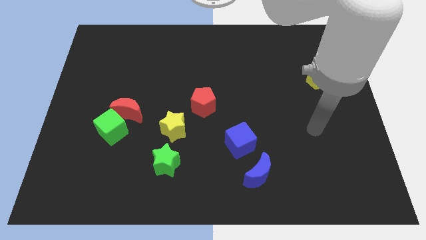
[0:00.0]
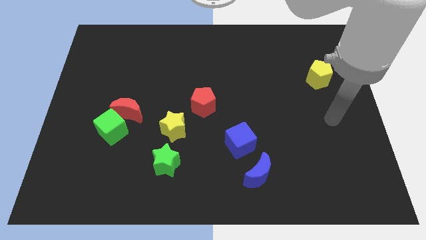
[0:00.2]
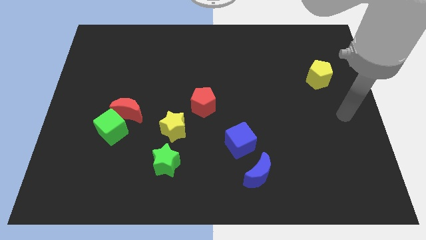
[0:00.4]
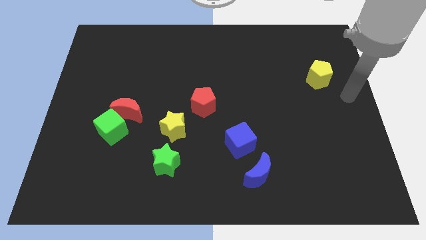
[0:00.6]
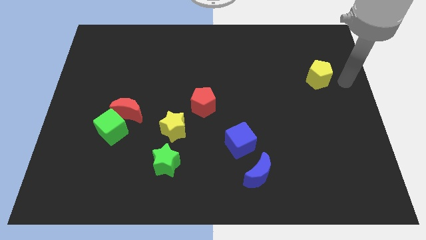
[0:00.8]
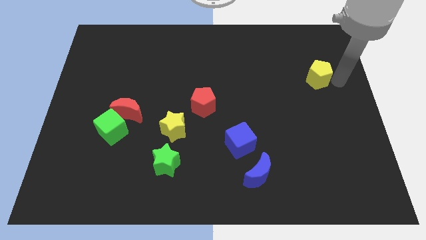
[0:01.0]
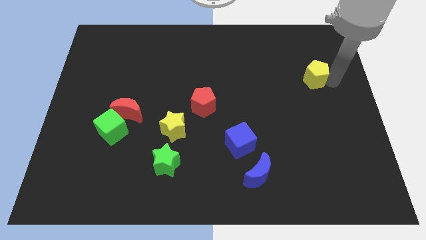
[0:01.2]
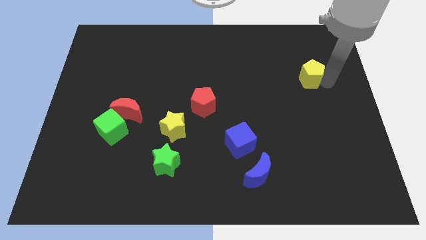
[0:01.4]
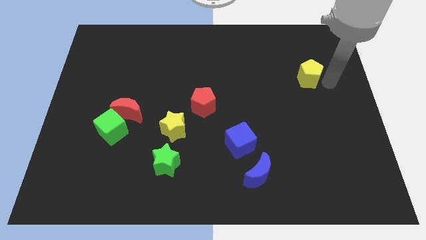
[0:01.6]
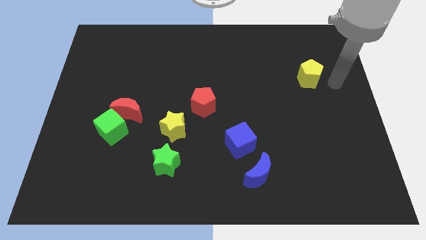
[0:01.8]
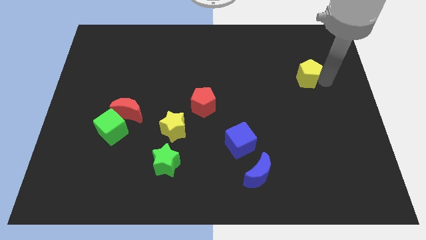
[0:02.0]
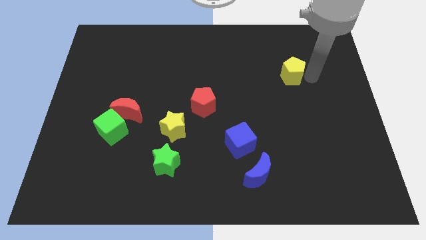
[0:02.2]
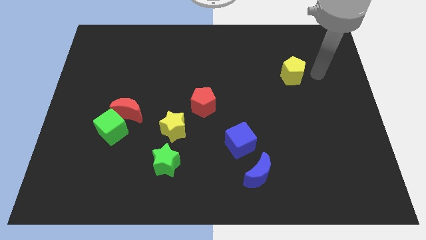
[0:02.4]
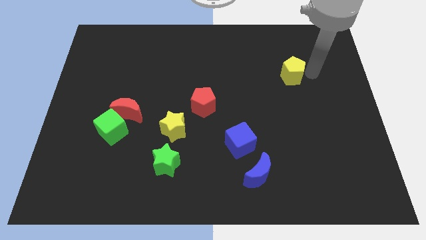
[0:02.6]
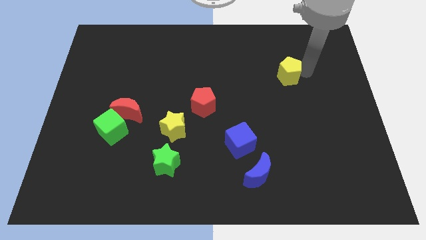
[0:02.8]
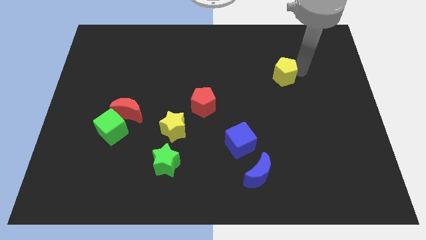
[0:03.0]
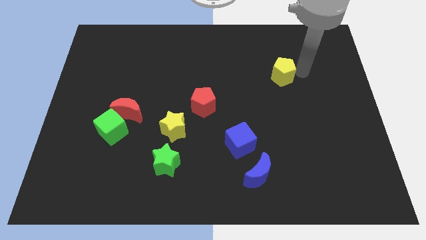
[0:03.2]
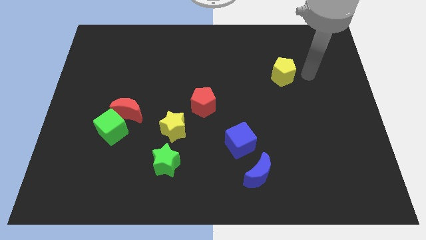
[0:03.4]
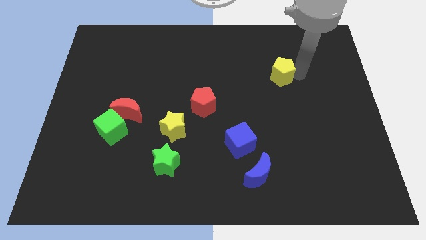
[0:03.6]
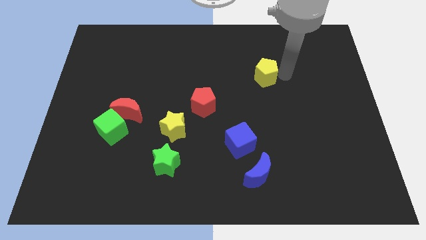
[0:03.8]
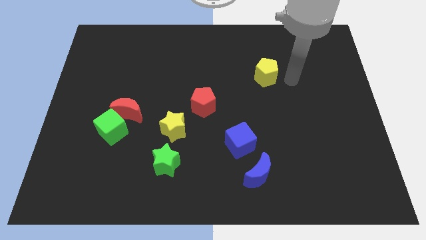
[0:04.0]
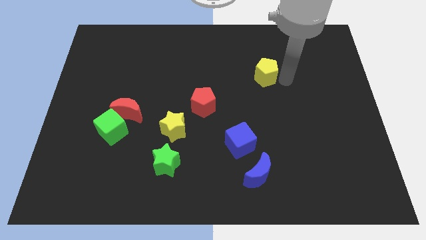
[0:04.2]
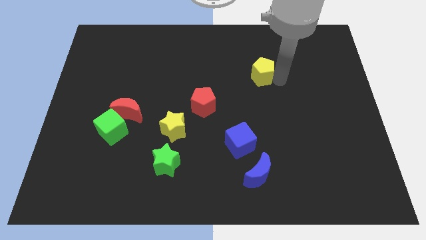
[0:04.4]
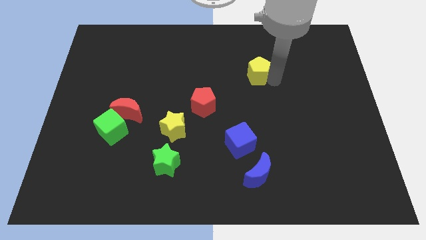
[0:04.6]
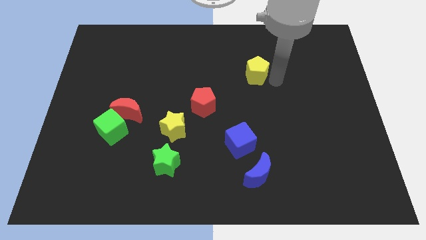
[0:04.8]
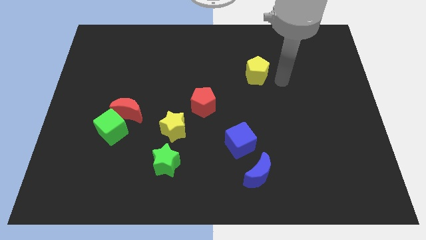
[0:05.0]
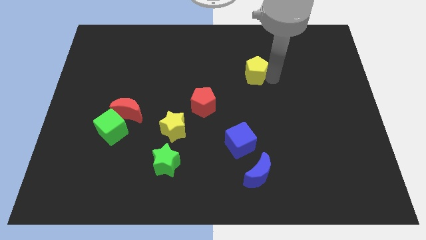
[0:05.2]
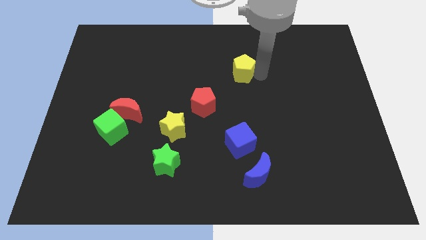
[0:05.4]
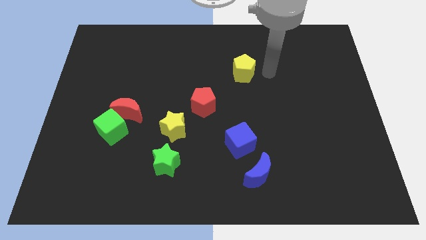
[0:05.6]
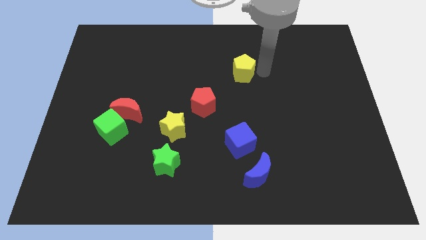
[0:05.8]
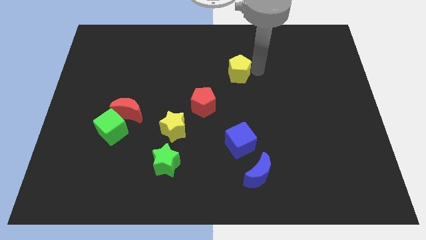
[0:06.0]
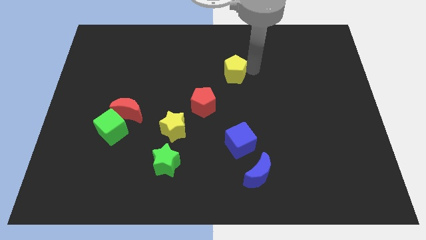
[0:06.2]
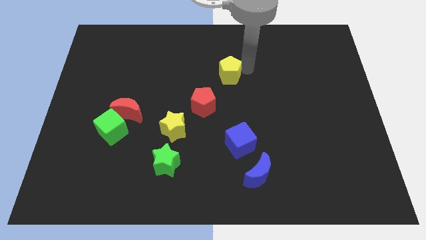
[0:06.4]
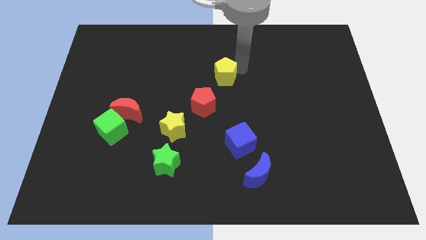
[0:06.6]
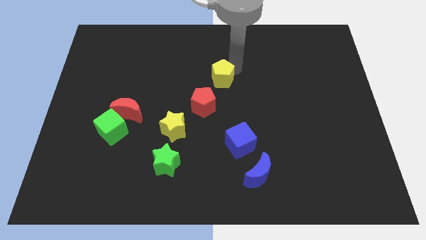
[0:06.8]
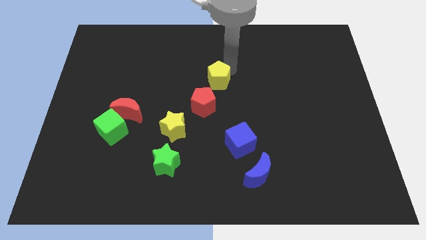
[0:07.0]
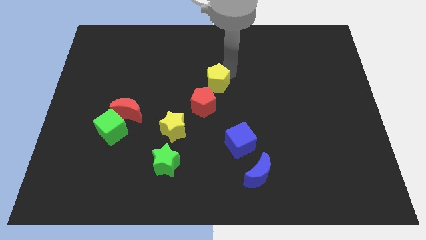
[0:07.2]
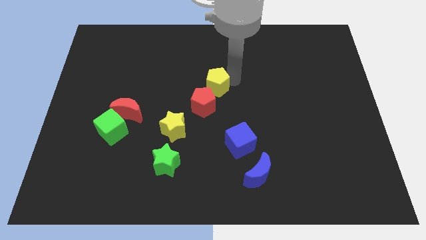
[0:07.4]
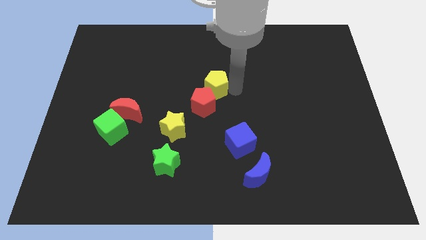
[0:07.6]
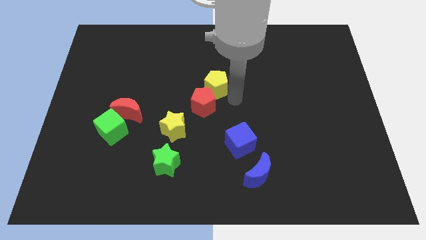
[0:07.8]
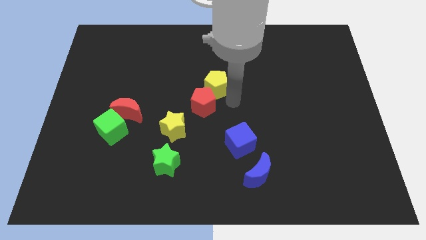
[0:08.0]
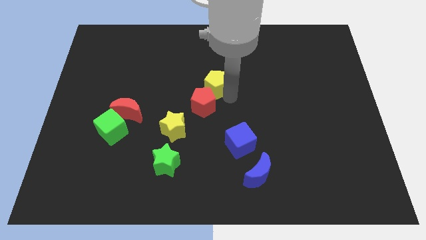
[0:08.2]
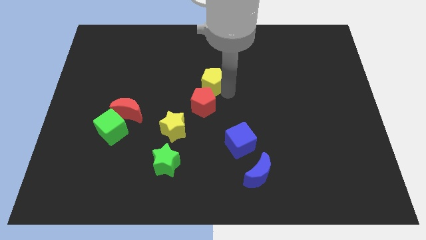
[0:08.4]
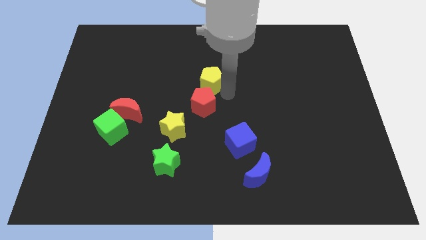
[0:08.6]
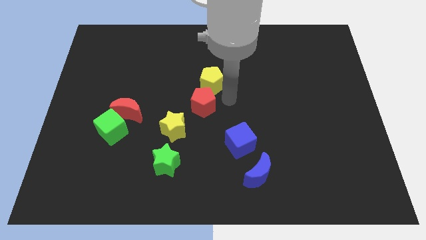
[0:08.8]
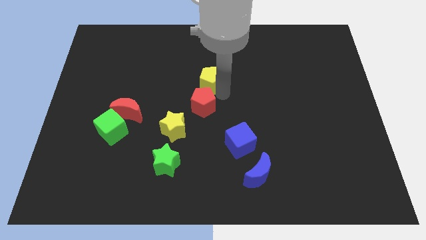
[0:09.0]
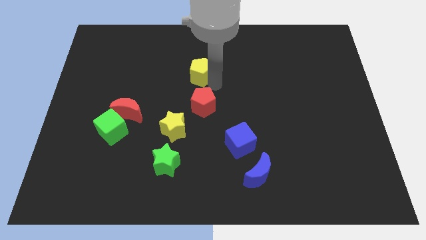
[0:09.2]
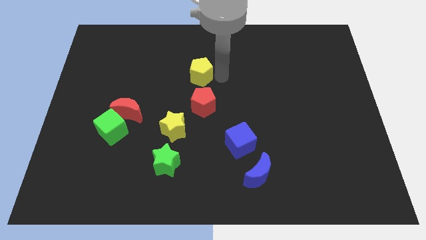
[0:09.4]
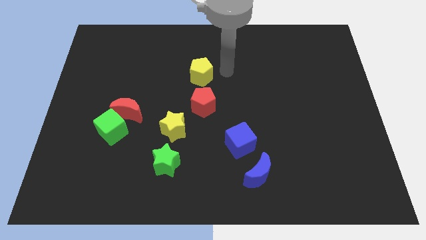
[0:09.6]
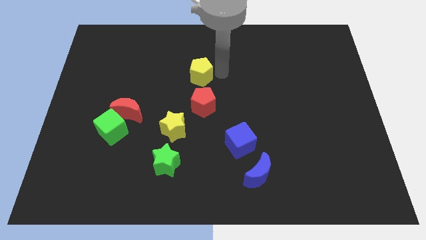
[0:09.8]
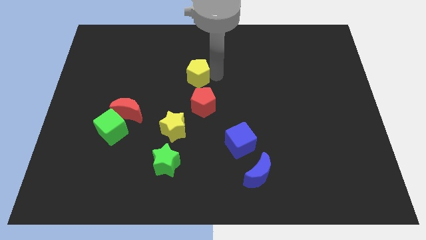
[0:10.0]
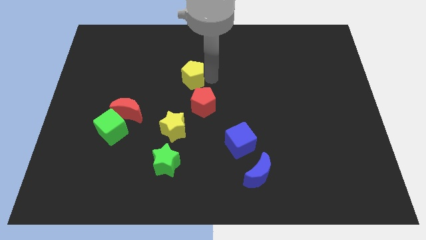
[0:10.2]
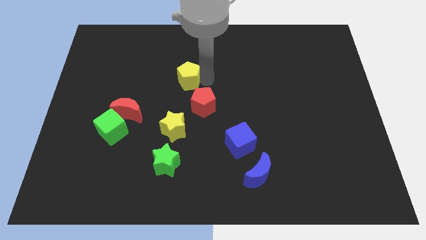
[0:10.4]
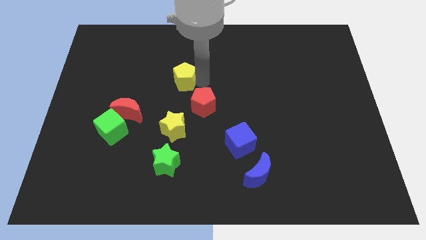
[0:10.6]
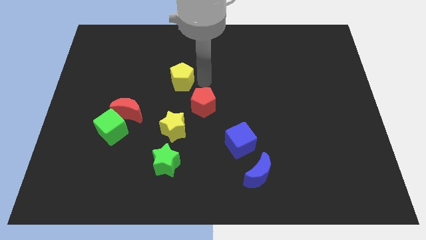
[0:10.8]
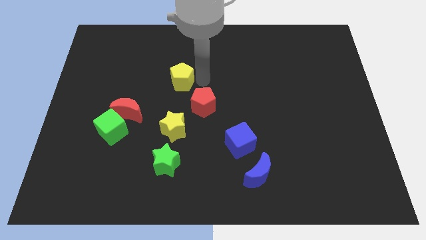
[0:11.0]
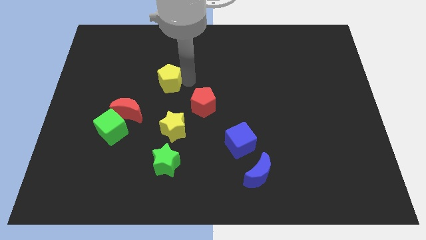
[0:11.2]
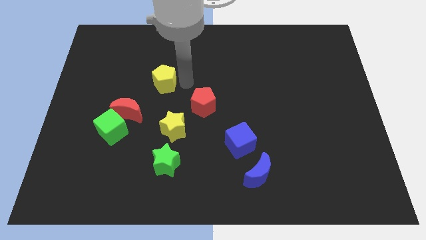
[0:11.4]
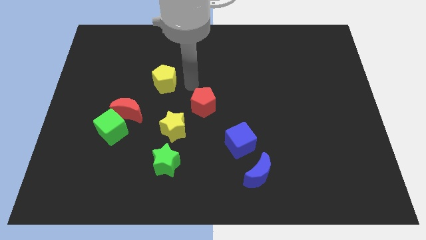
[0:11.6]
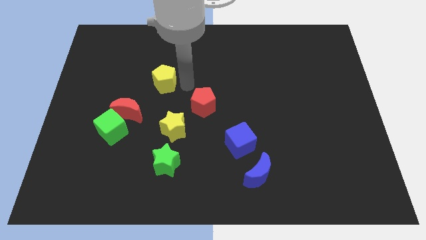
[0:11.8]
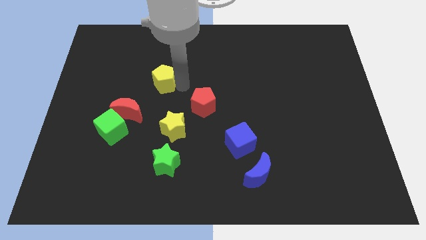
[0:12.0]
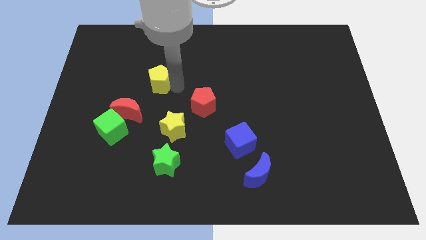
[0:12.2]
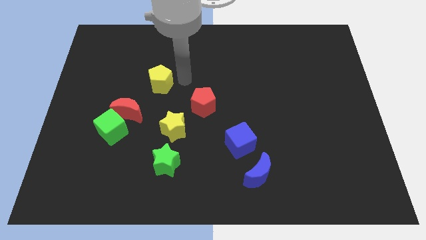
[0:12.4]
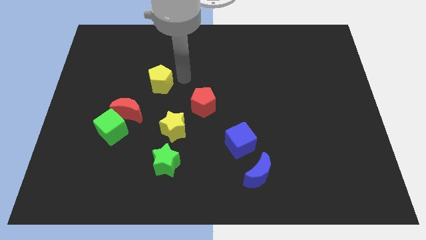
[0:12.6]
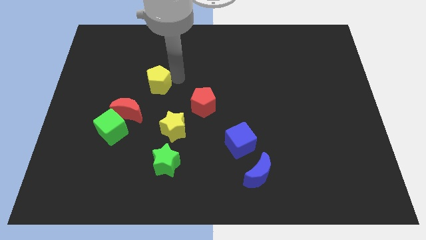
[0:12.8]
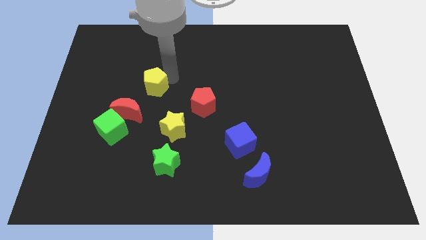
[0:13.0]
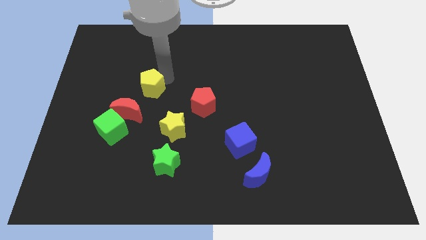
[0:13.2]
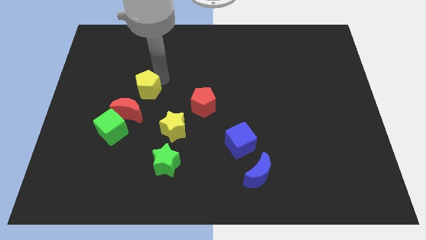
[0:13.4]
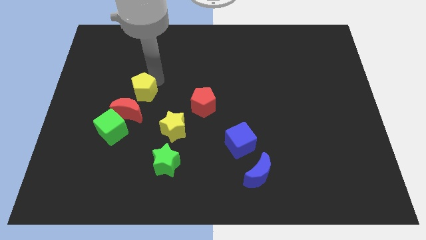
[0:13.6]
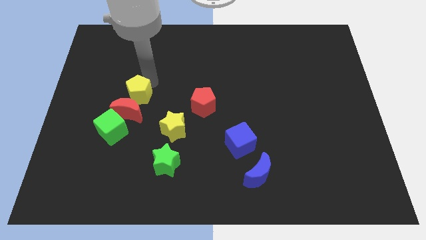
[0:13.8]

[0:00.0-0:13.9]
slide the yellow pentagon above the green cube
